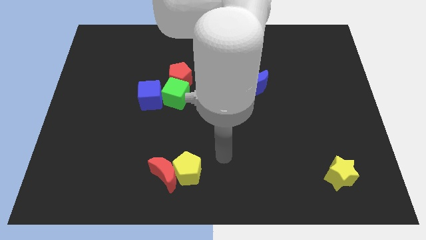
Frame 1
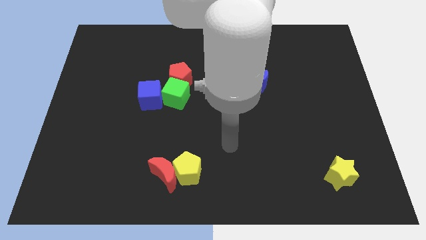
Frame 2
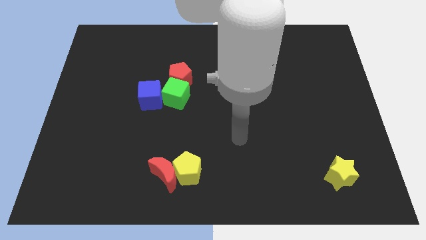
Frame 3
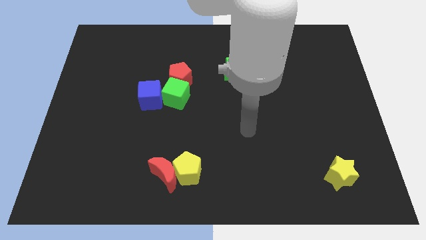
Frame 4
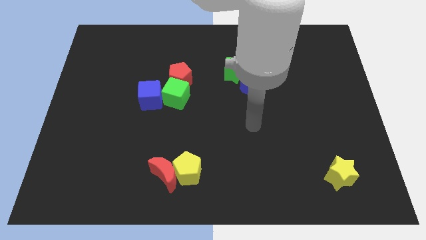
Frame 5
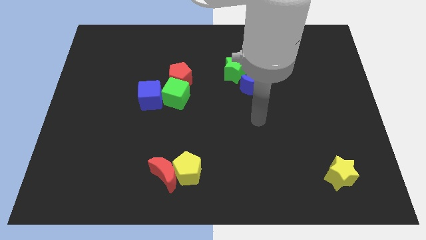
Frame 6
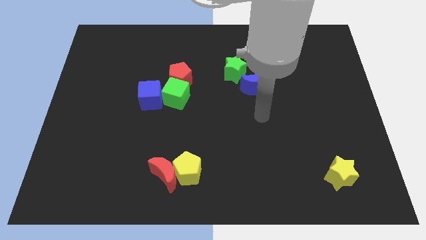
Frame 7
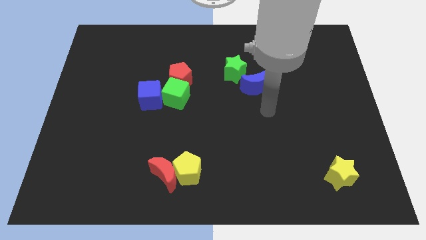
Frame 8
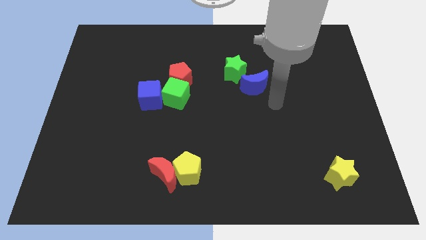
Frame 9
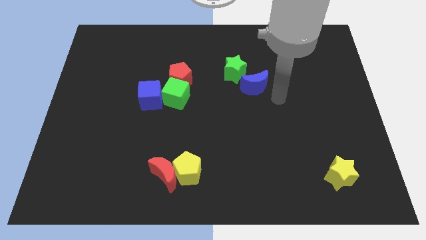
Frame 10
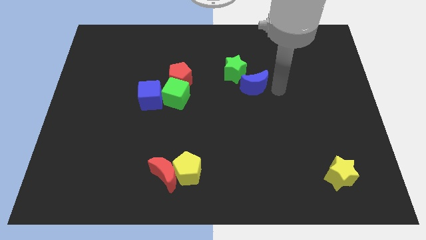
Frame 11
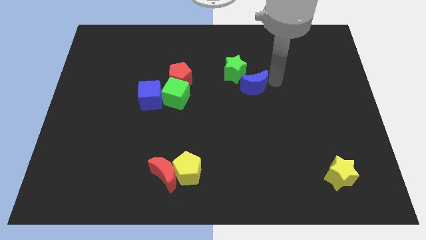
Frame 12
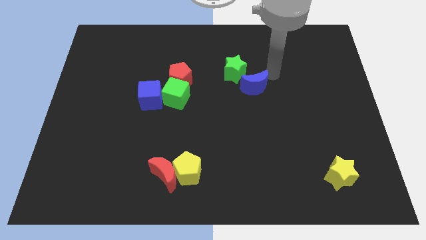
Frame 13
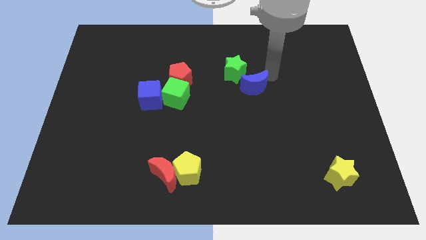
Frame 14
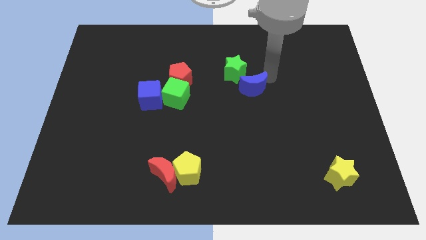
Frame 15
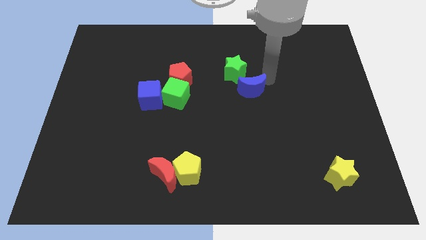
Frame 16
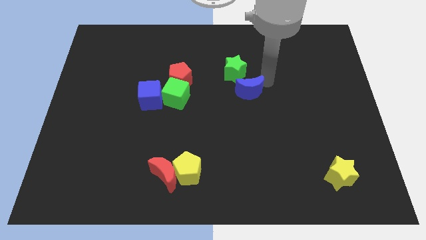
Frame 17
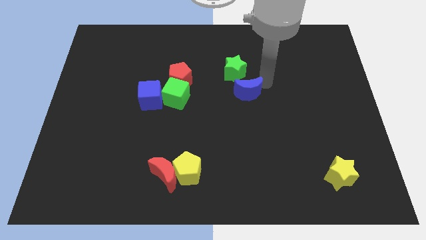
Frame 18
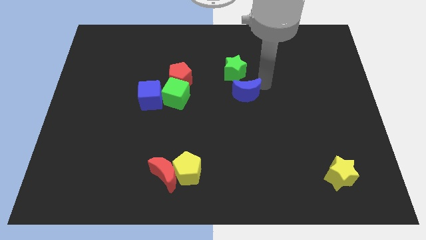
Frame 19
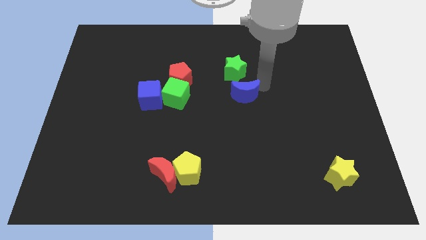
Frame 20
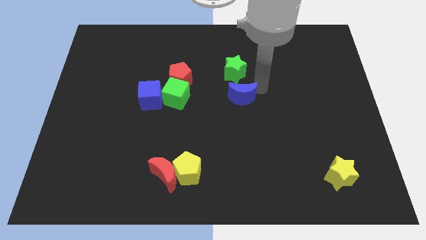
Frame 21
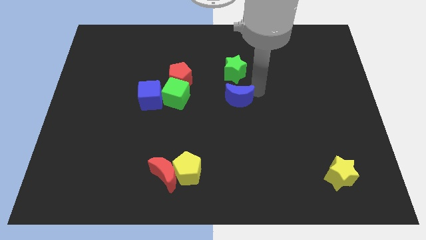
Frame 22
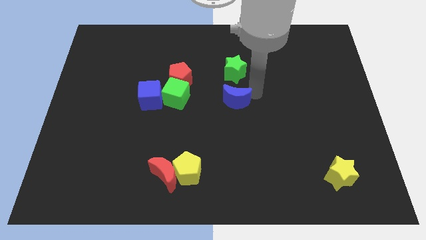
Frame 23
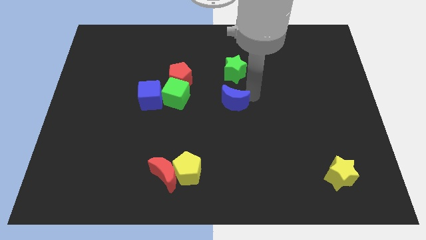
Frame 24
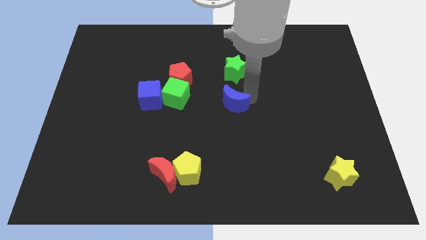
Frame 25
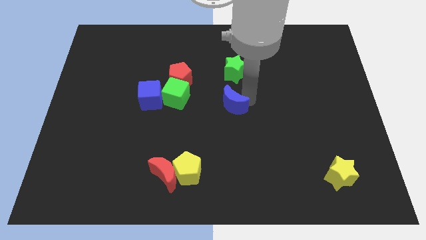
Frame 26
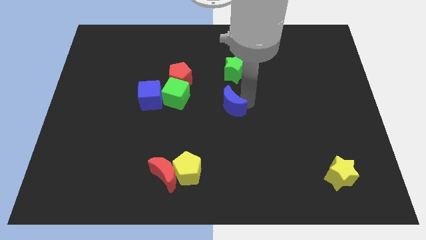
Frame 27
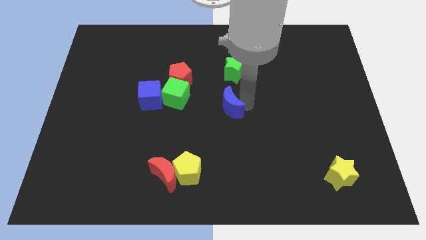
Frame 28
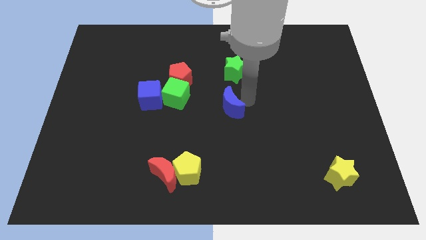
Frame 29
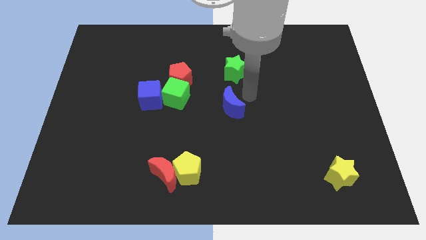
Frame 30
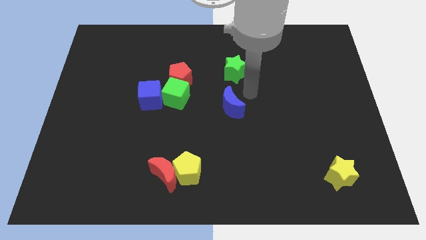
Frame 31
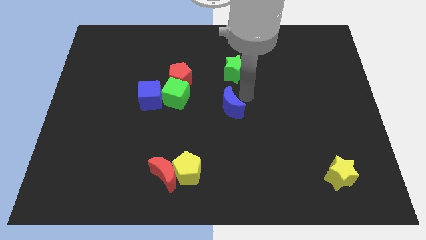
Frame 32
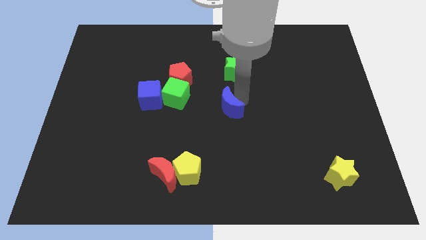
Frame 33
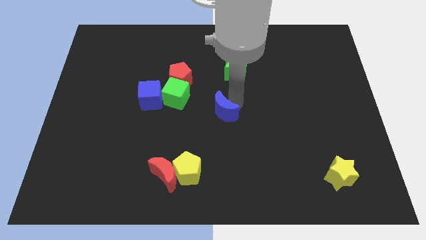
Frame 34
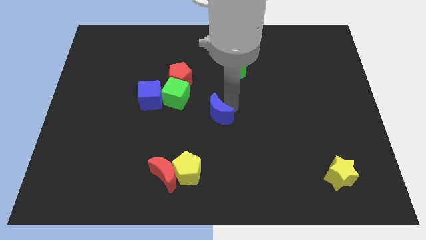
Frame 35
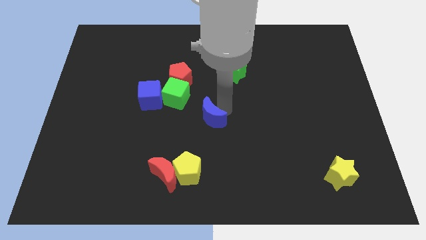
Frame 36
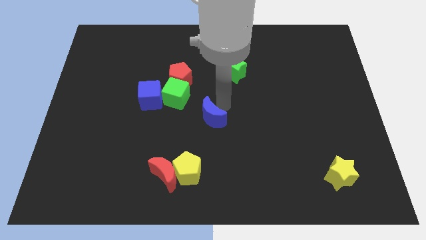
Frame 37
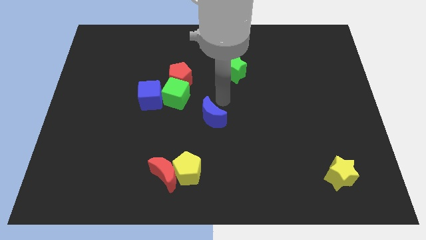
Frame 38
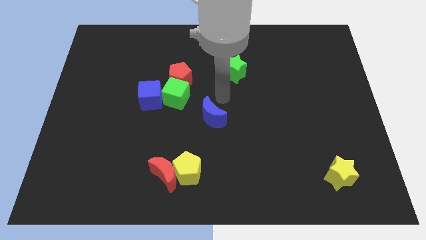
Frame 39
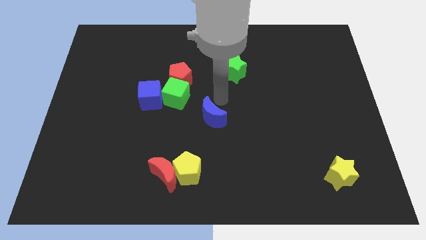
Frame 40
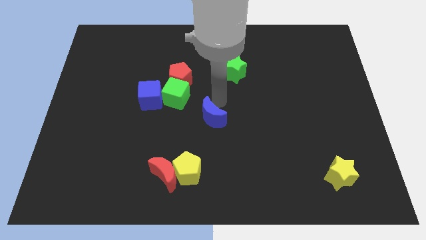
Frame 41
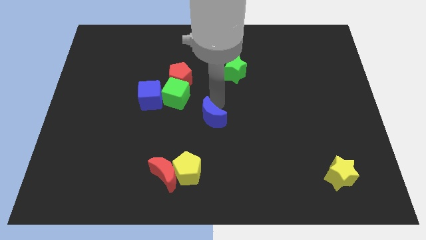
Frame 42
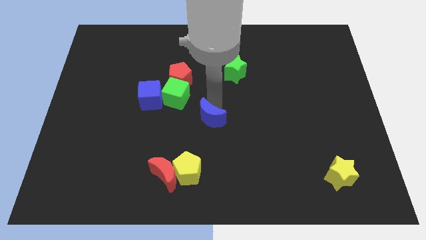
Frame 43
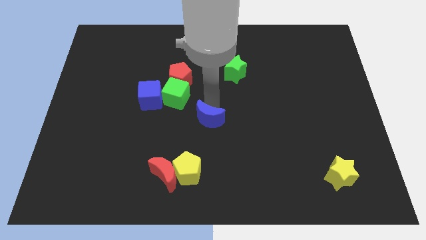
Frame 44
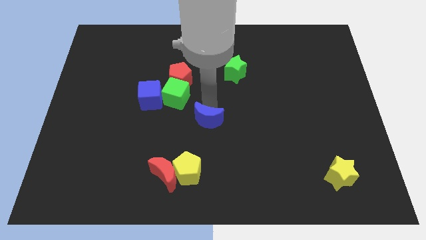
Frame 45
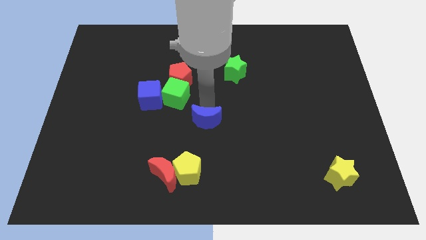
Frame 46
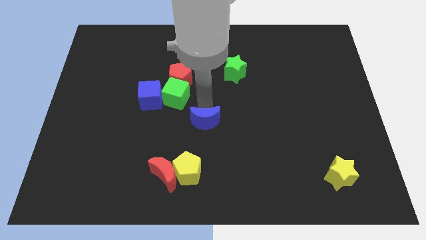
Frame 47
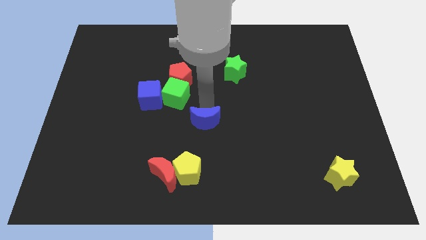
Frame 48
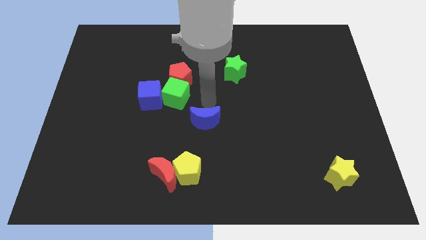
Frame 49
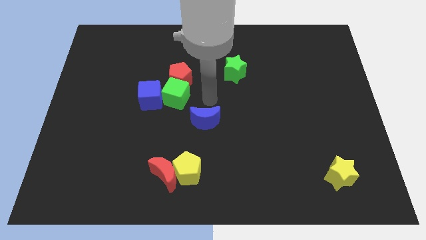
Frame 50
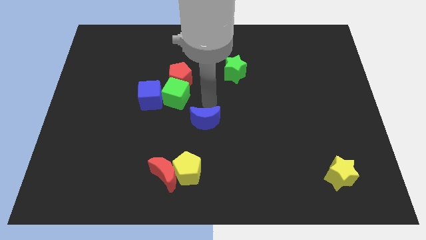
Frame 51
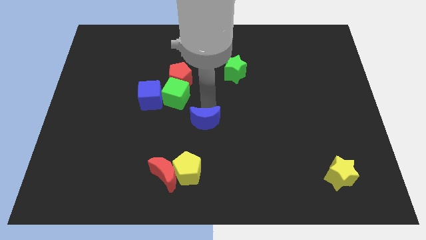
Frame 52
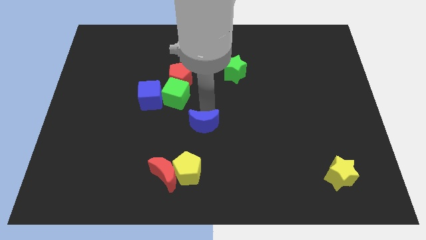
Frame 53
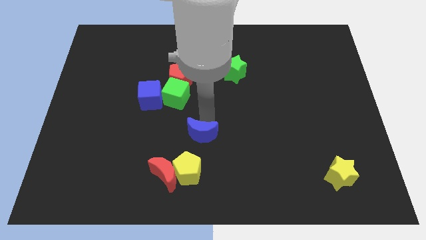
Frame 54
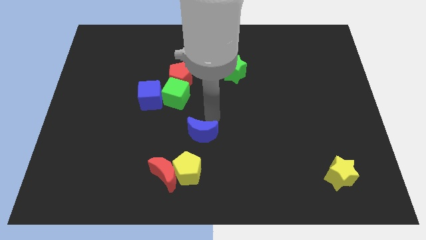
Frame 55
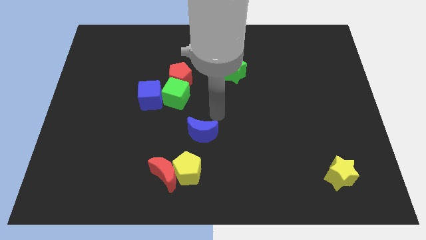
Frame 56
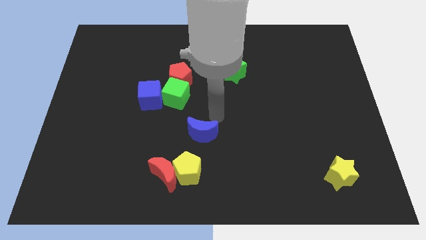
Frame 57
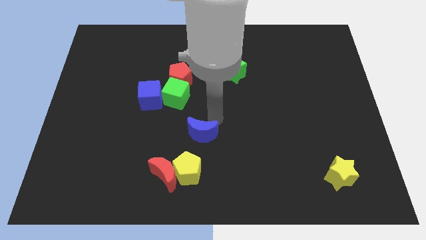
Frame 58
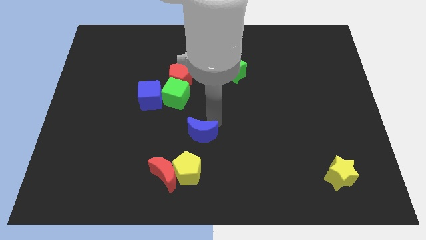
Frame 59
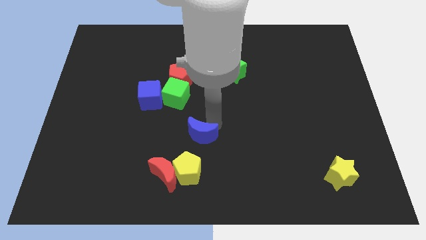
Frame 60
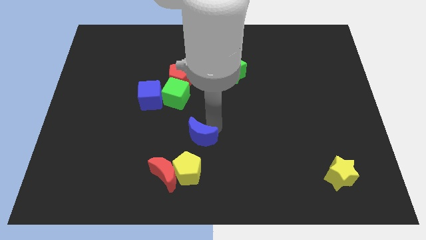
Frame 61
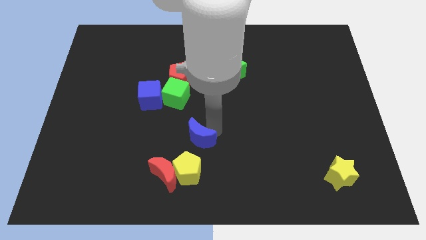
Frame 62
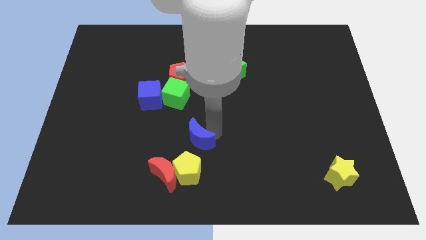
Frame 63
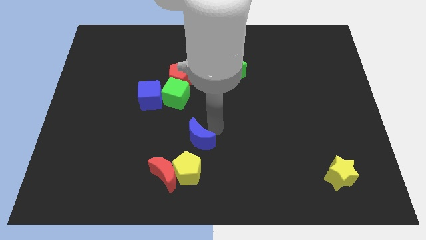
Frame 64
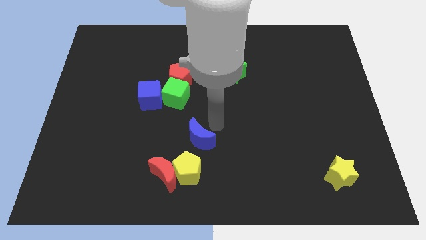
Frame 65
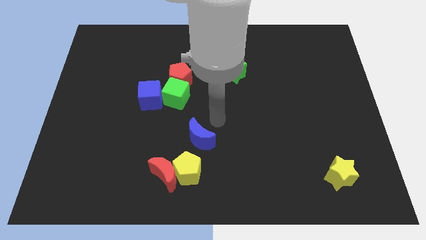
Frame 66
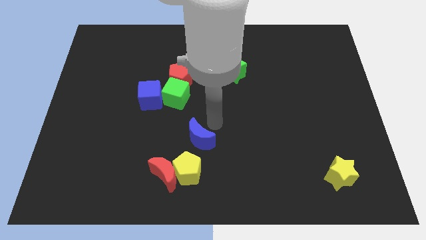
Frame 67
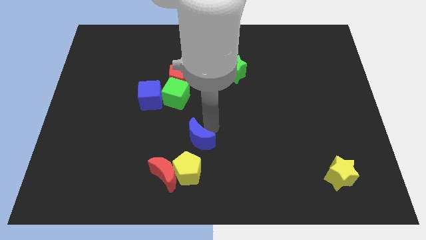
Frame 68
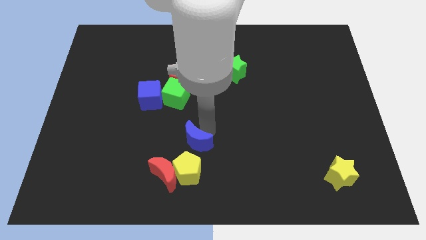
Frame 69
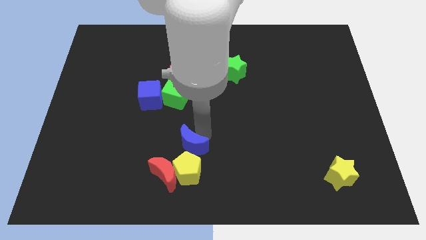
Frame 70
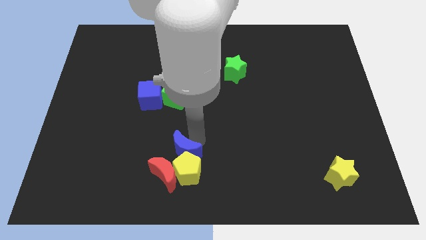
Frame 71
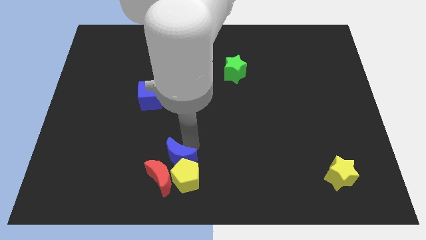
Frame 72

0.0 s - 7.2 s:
slide the blue moon to the red moon

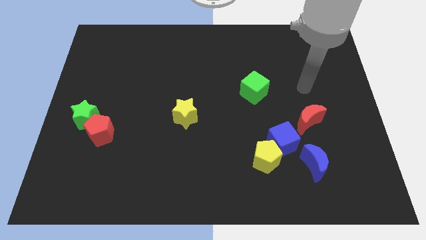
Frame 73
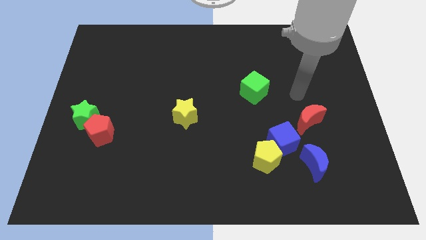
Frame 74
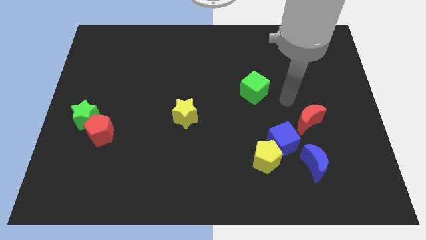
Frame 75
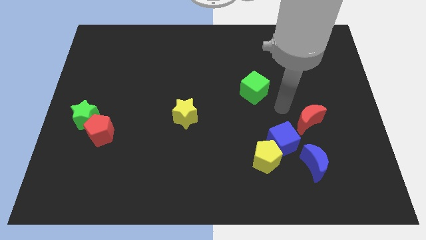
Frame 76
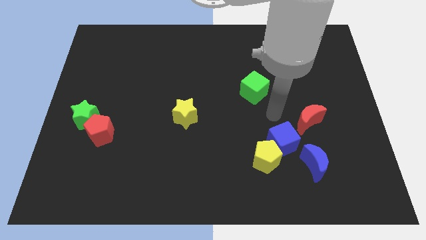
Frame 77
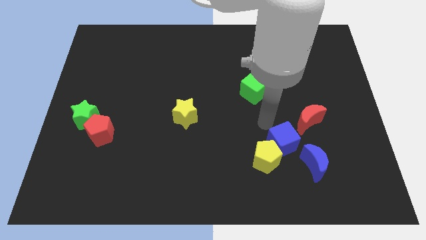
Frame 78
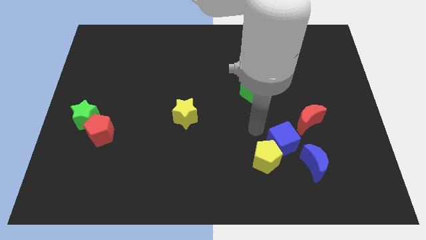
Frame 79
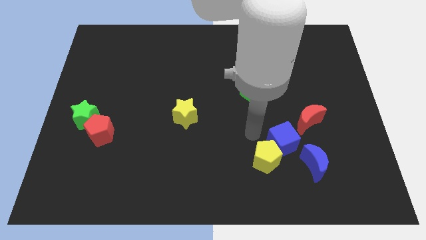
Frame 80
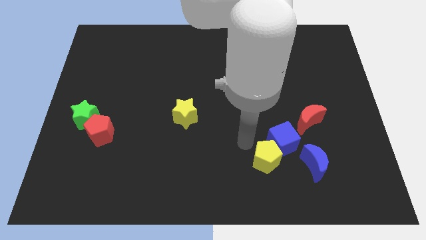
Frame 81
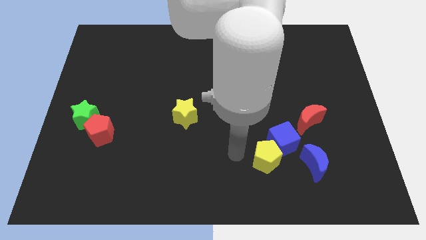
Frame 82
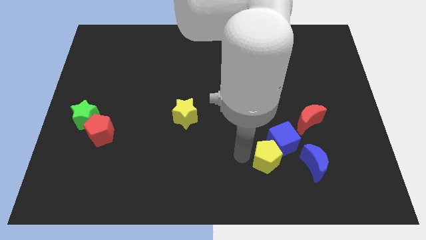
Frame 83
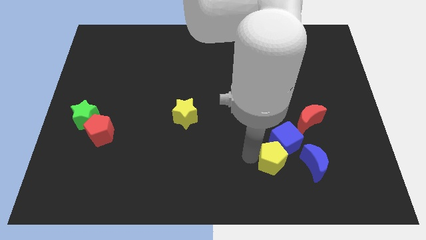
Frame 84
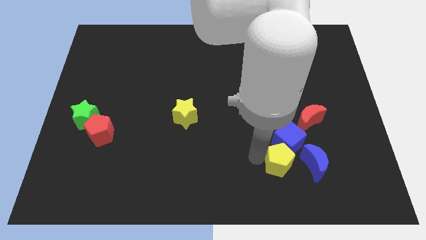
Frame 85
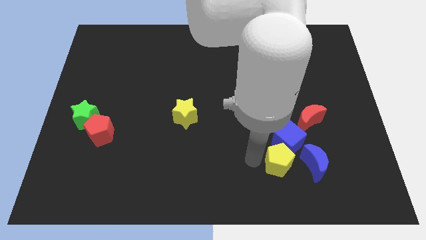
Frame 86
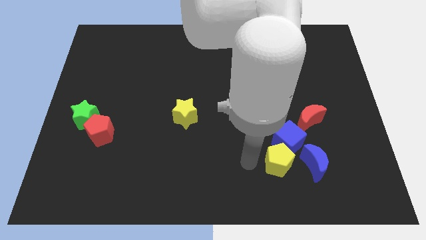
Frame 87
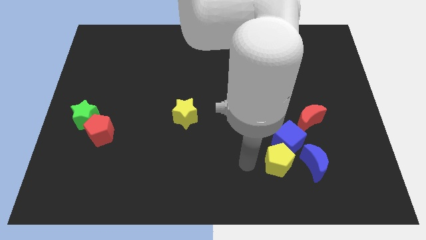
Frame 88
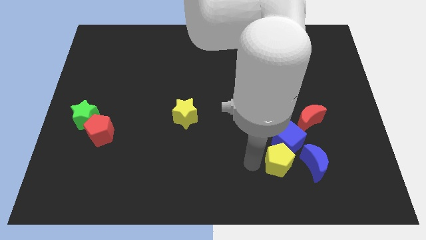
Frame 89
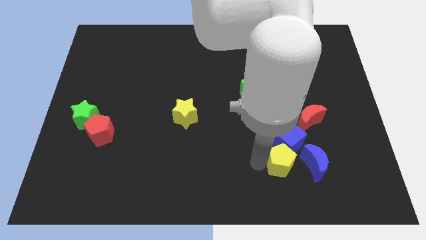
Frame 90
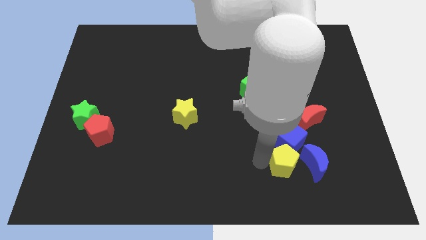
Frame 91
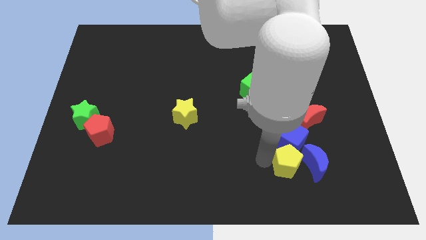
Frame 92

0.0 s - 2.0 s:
move the yellow pentagon towards the blue moon
